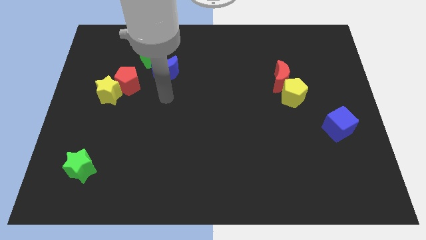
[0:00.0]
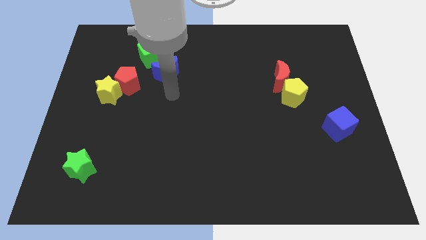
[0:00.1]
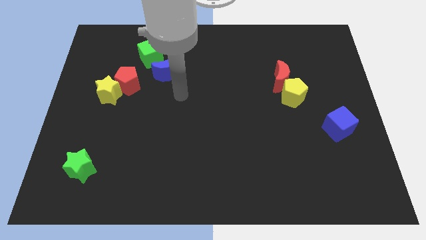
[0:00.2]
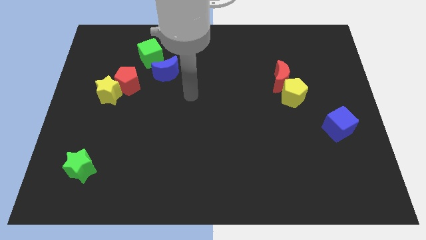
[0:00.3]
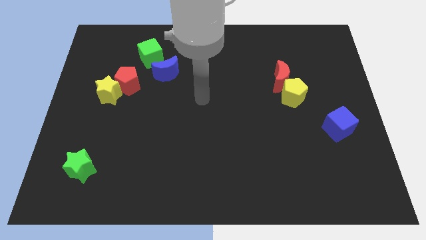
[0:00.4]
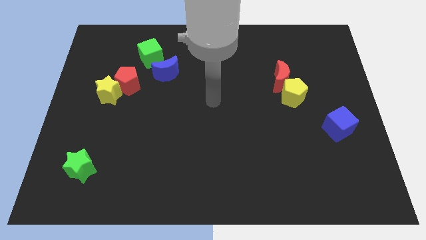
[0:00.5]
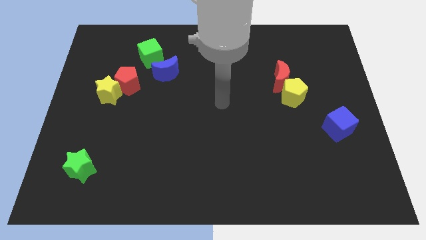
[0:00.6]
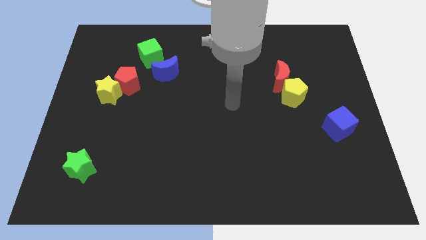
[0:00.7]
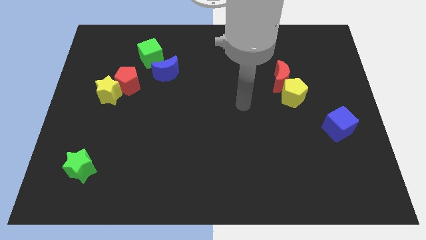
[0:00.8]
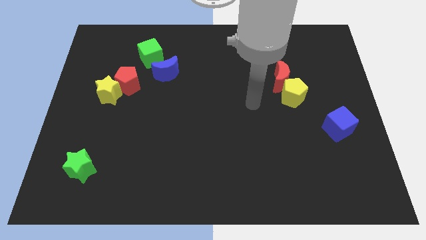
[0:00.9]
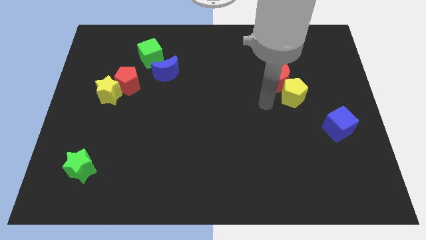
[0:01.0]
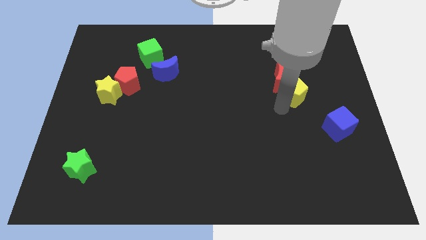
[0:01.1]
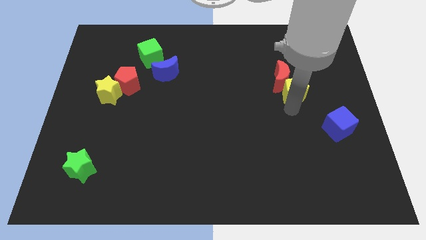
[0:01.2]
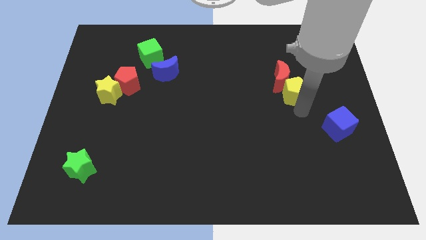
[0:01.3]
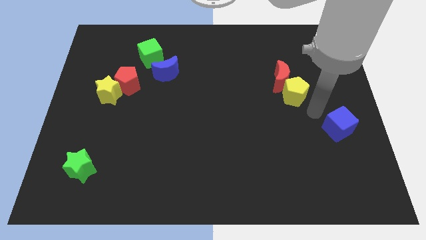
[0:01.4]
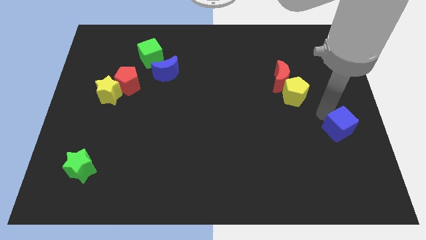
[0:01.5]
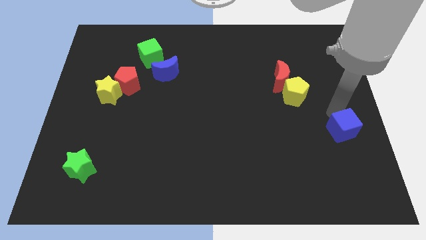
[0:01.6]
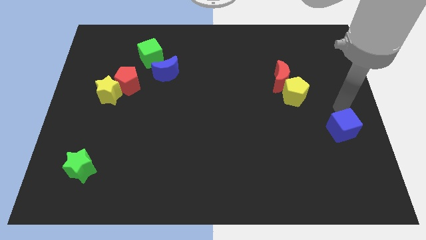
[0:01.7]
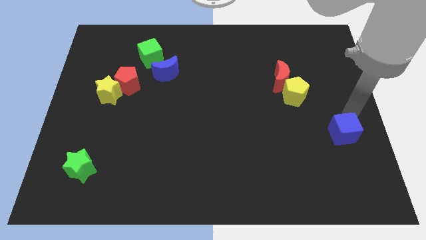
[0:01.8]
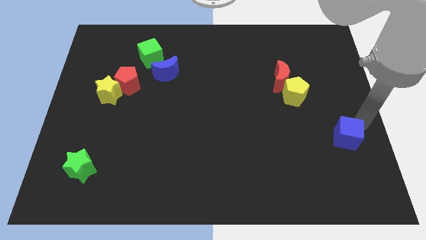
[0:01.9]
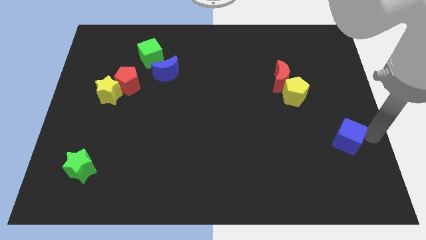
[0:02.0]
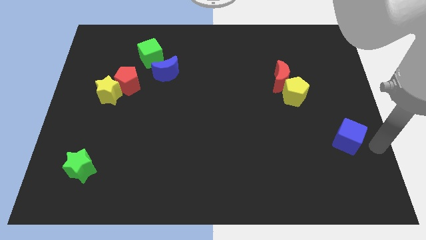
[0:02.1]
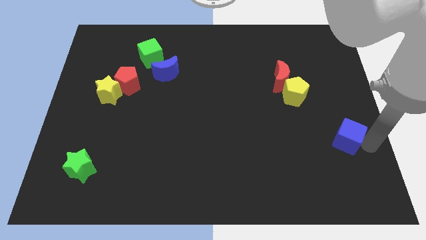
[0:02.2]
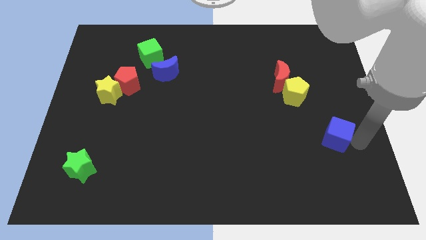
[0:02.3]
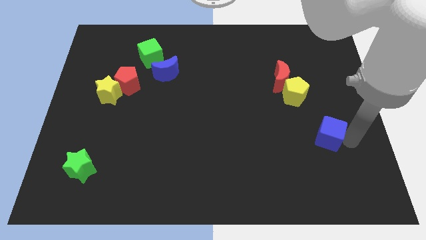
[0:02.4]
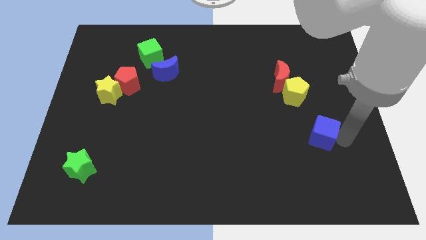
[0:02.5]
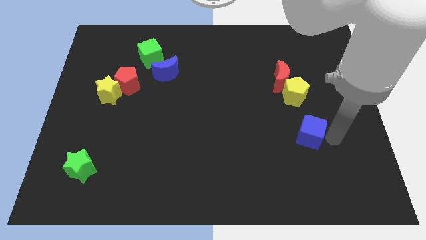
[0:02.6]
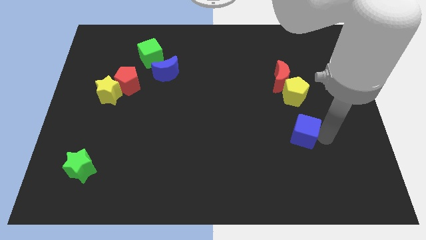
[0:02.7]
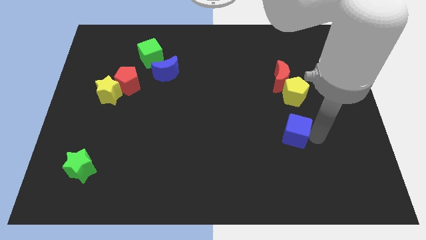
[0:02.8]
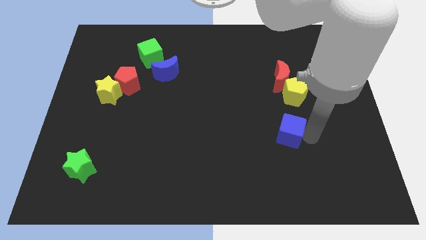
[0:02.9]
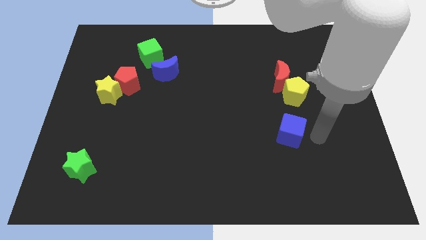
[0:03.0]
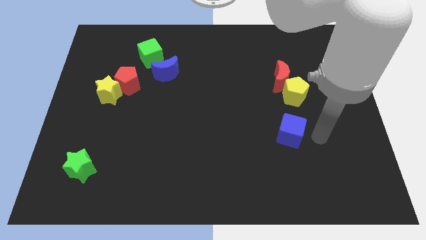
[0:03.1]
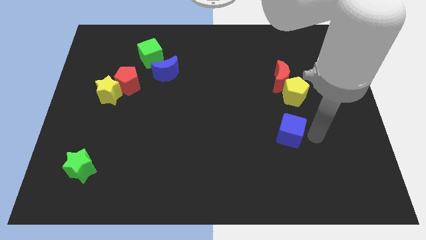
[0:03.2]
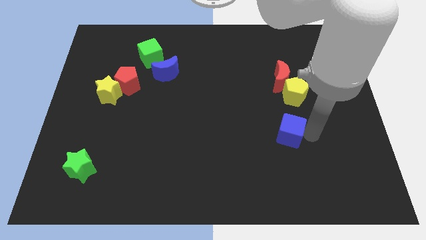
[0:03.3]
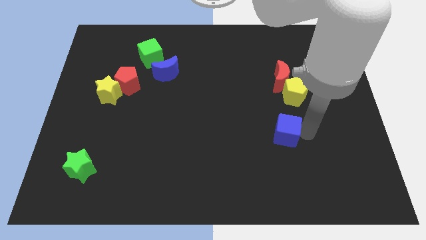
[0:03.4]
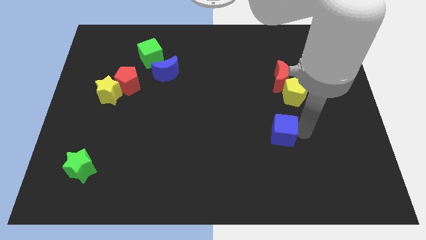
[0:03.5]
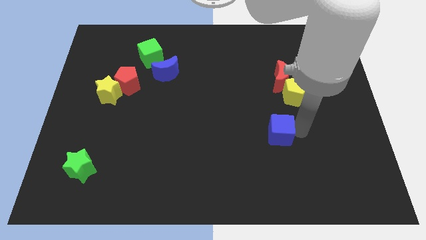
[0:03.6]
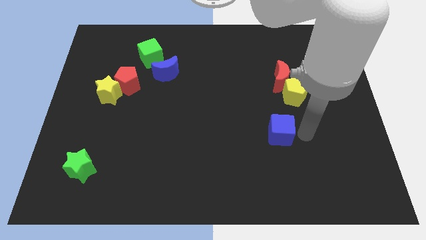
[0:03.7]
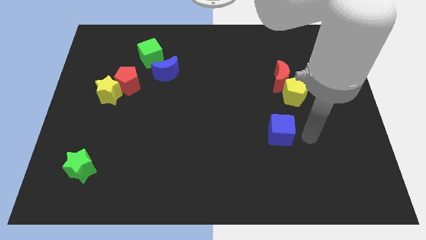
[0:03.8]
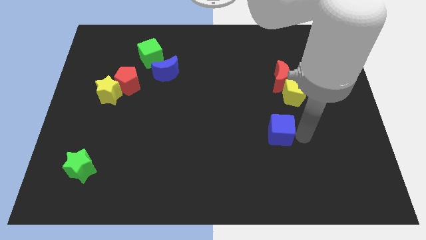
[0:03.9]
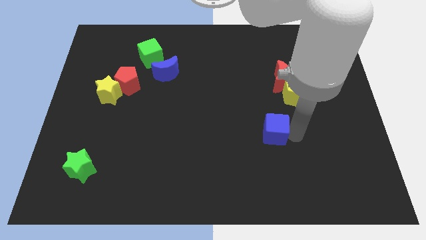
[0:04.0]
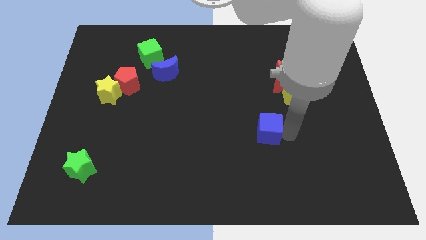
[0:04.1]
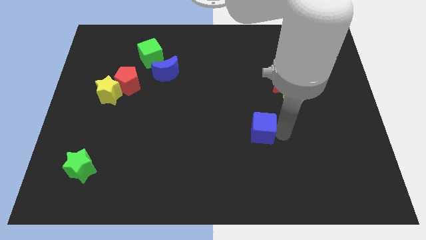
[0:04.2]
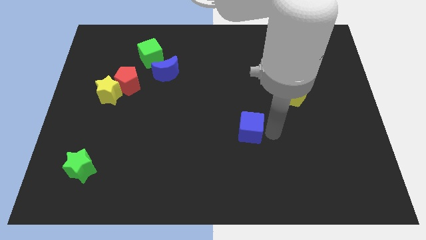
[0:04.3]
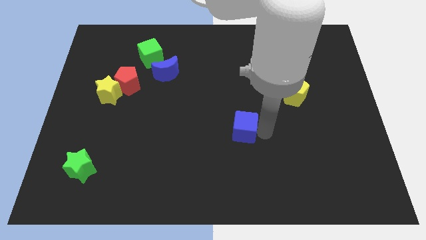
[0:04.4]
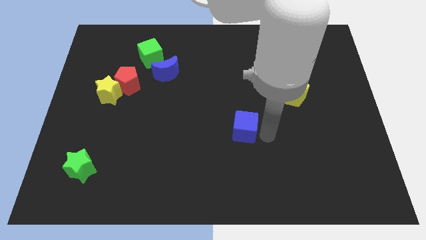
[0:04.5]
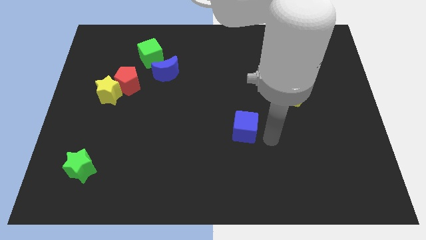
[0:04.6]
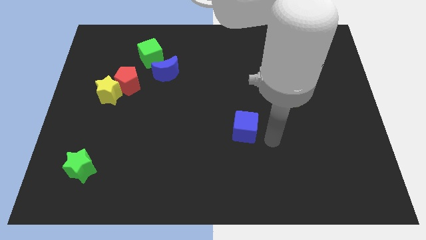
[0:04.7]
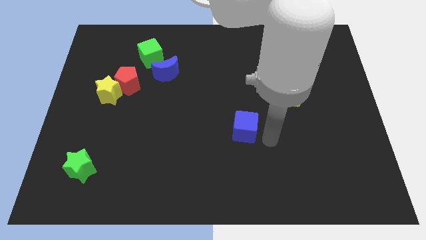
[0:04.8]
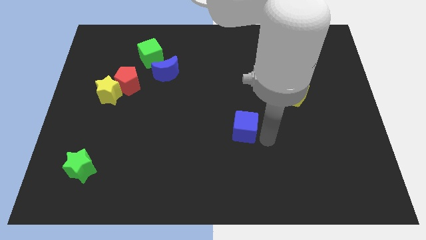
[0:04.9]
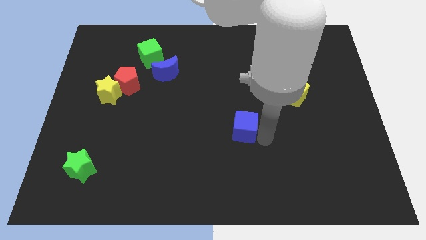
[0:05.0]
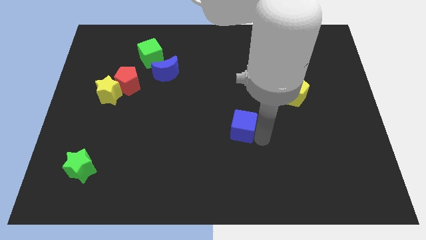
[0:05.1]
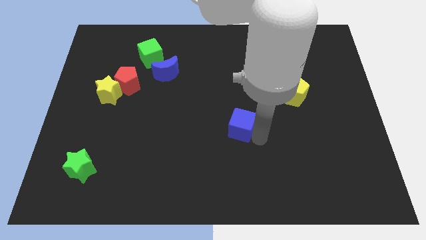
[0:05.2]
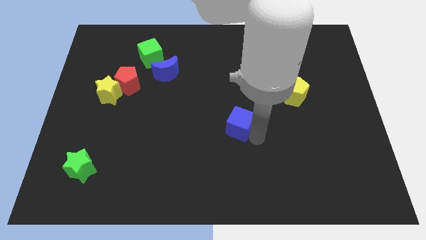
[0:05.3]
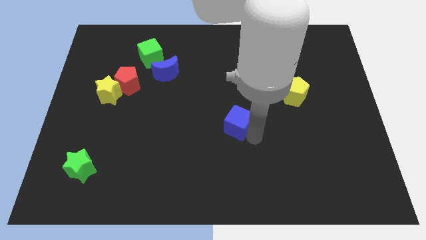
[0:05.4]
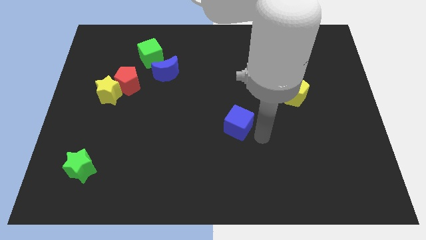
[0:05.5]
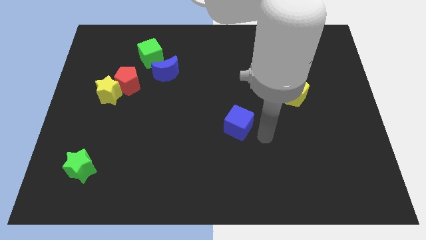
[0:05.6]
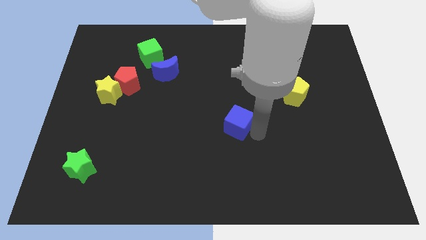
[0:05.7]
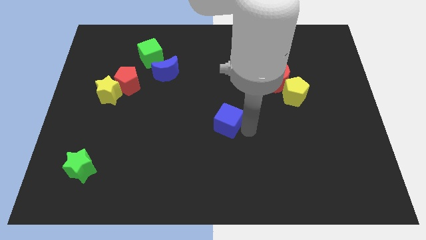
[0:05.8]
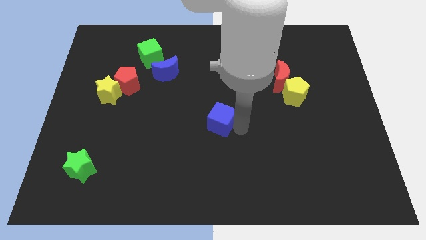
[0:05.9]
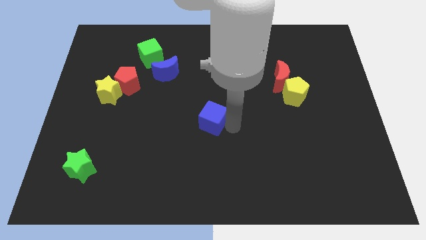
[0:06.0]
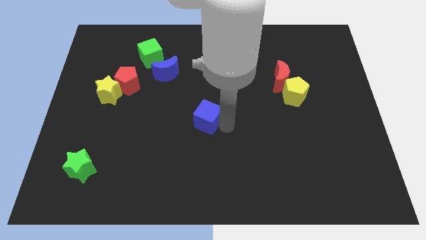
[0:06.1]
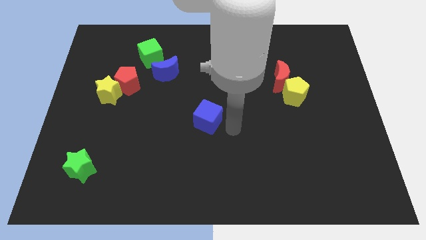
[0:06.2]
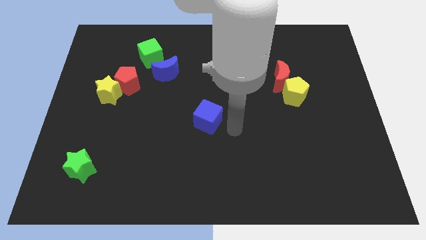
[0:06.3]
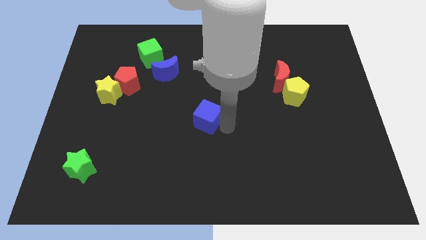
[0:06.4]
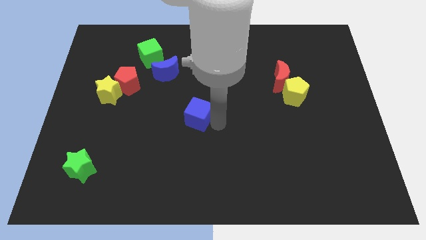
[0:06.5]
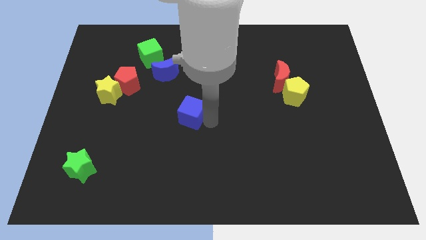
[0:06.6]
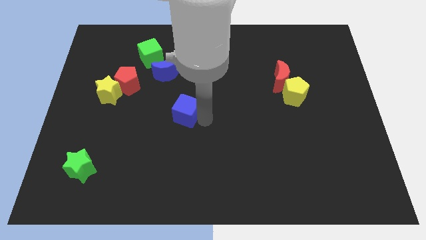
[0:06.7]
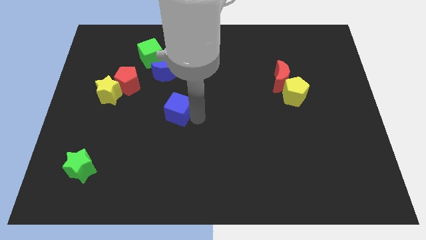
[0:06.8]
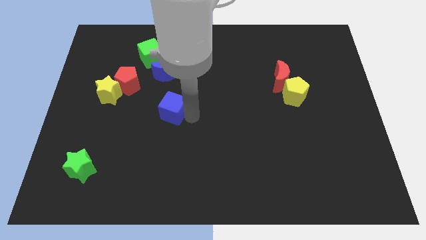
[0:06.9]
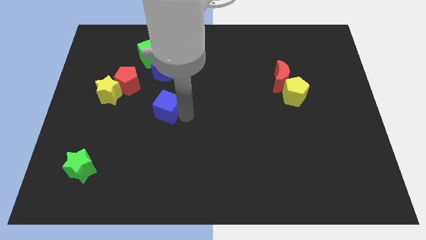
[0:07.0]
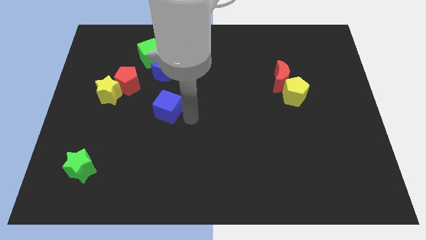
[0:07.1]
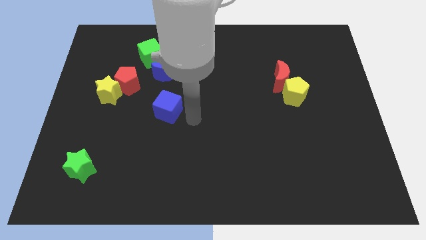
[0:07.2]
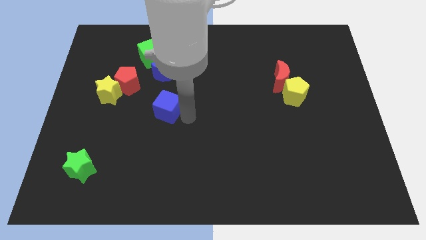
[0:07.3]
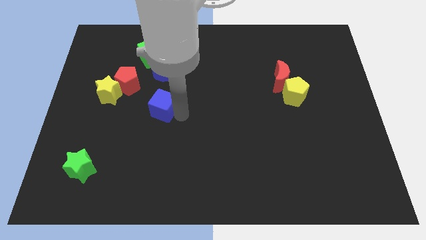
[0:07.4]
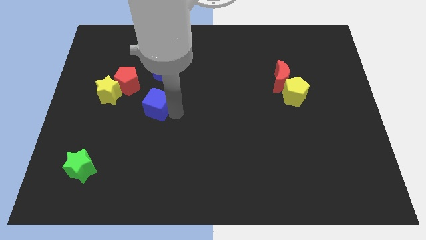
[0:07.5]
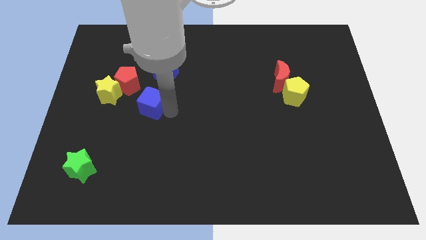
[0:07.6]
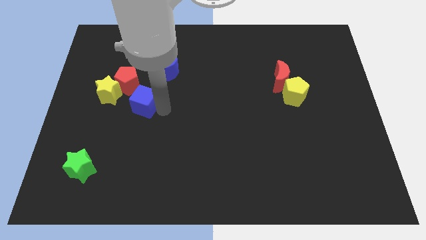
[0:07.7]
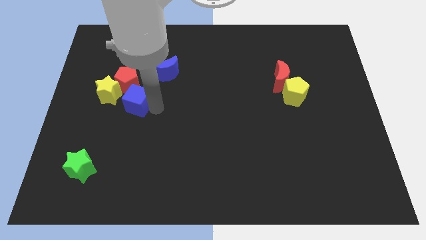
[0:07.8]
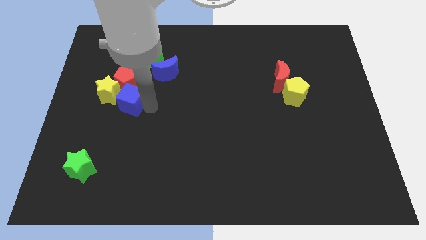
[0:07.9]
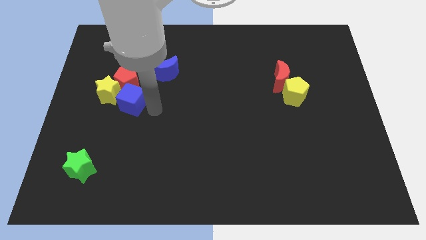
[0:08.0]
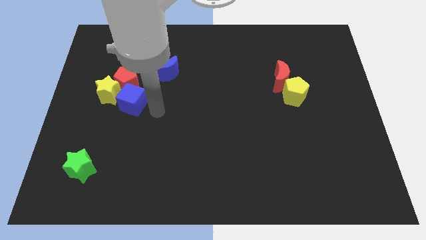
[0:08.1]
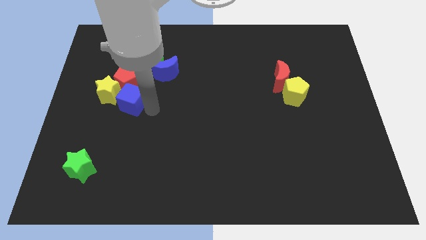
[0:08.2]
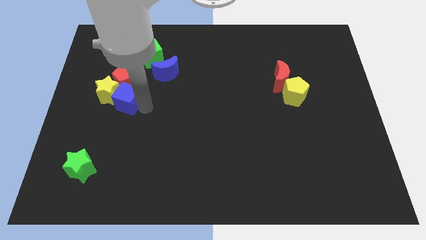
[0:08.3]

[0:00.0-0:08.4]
push the blue cube to the yellow star
